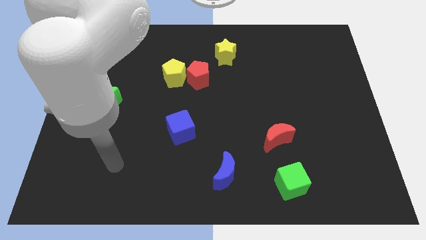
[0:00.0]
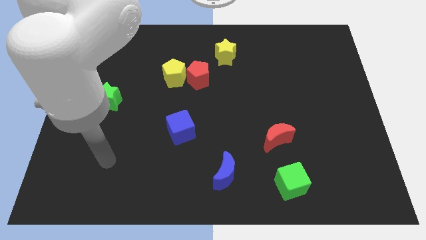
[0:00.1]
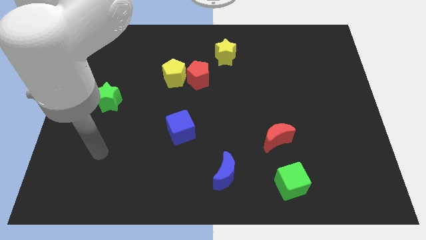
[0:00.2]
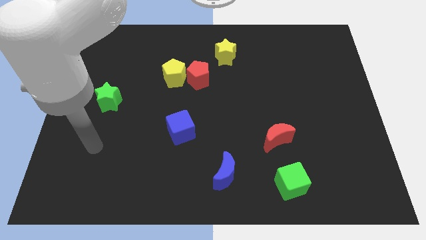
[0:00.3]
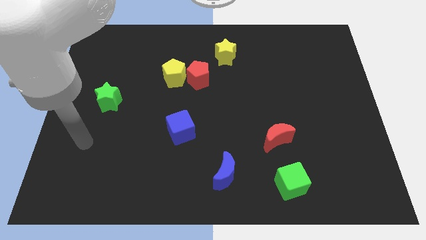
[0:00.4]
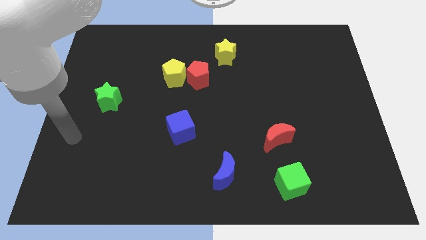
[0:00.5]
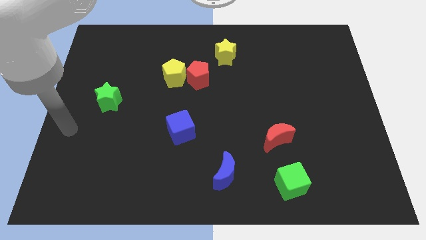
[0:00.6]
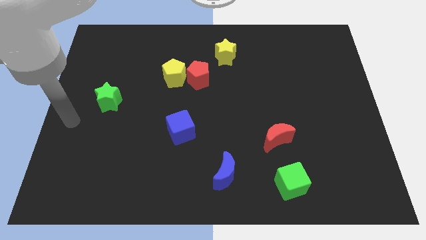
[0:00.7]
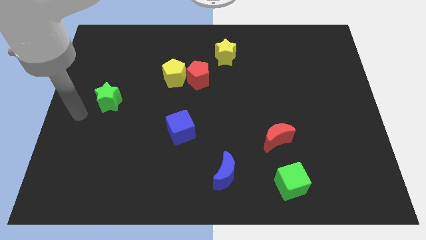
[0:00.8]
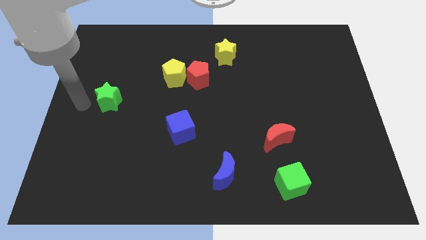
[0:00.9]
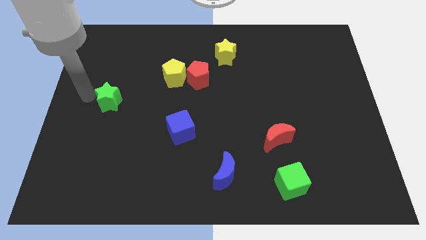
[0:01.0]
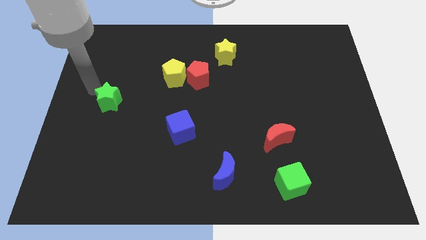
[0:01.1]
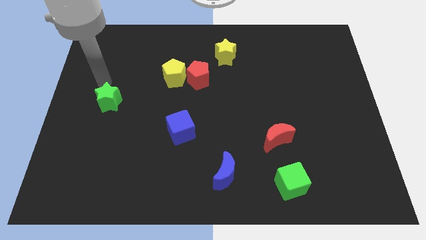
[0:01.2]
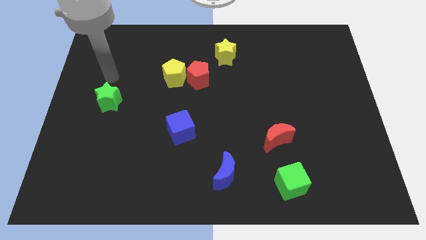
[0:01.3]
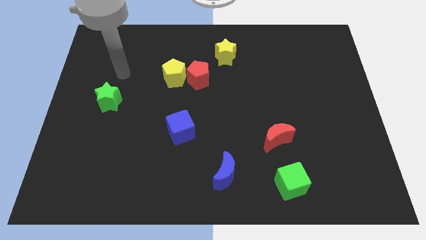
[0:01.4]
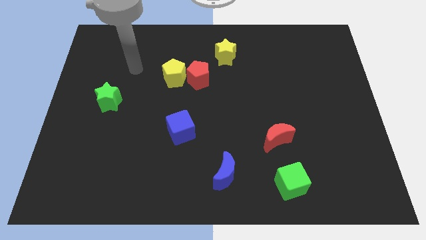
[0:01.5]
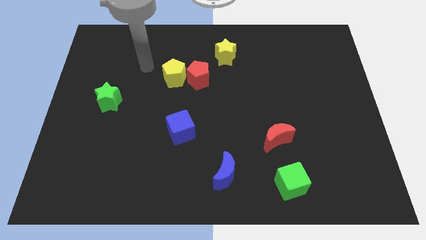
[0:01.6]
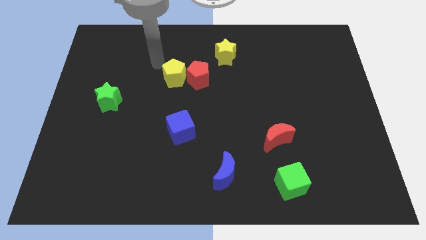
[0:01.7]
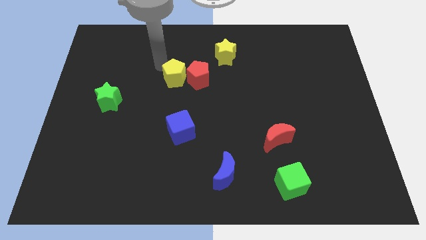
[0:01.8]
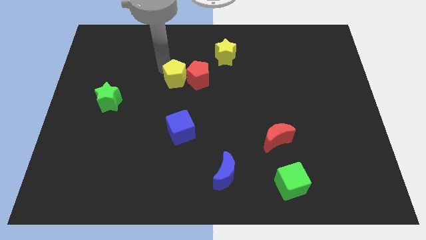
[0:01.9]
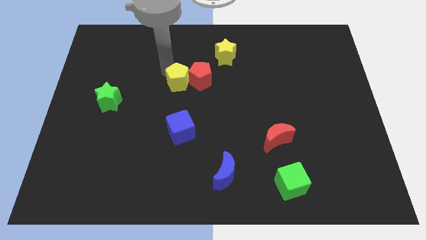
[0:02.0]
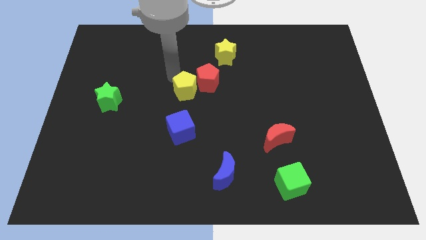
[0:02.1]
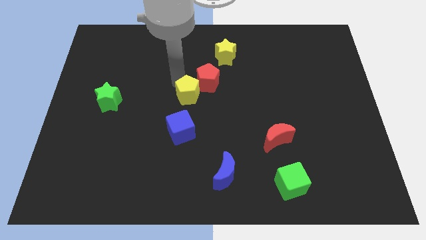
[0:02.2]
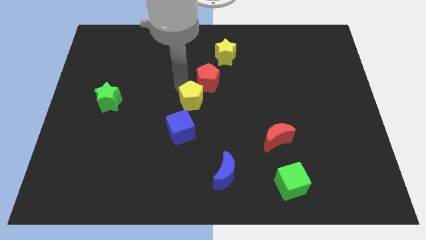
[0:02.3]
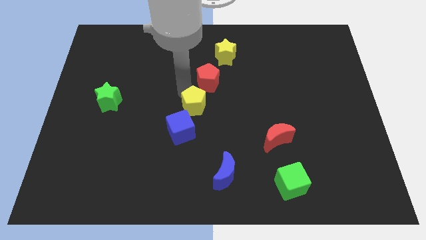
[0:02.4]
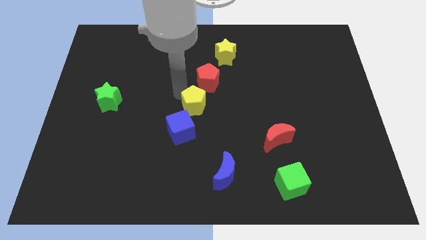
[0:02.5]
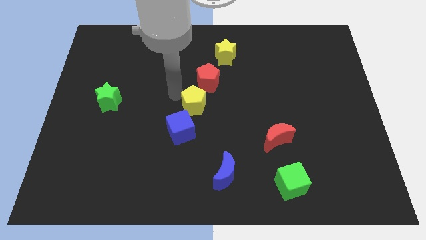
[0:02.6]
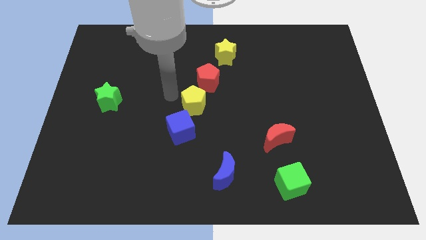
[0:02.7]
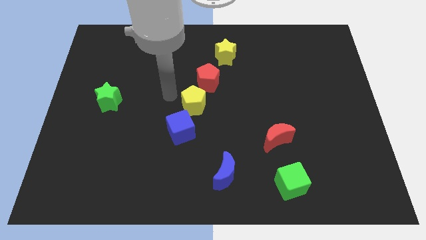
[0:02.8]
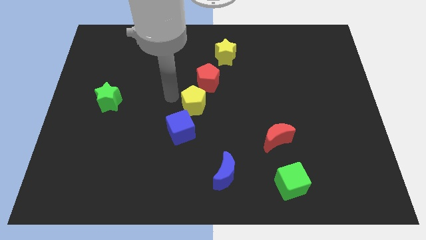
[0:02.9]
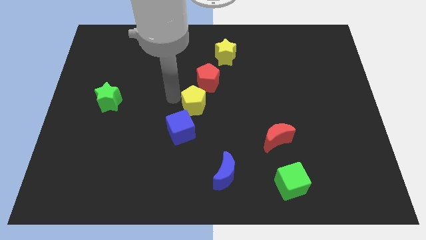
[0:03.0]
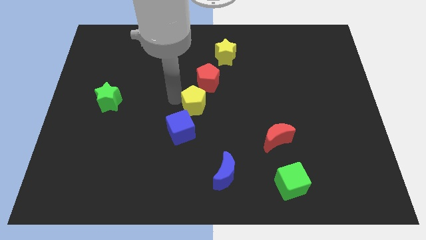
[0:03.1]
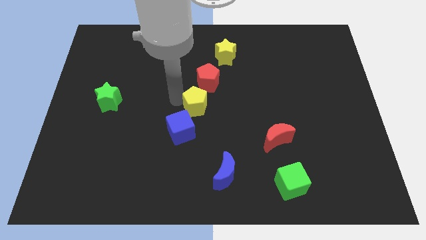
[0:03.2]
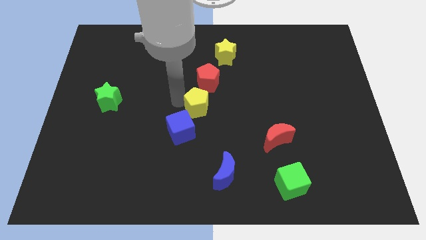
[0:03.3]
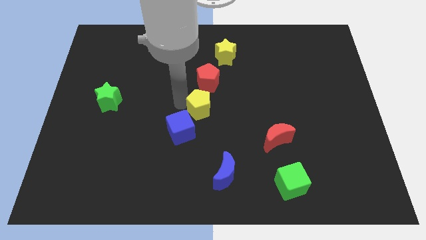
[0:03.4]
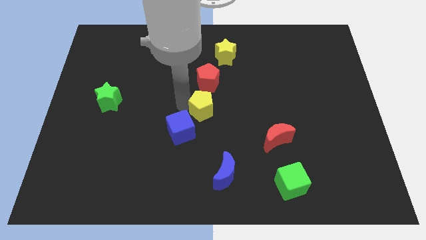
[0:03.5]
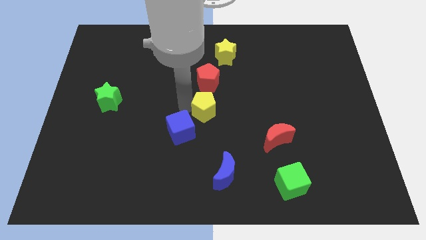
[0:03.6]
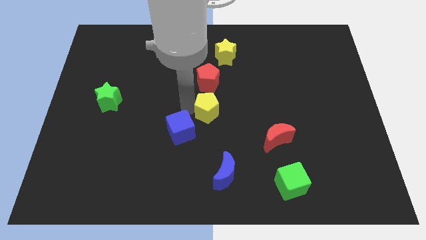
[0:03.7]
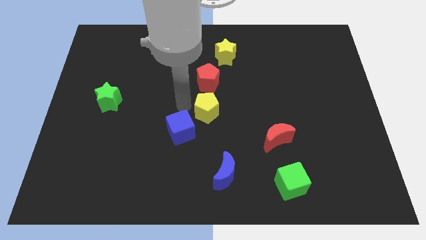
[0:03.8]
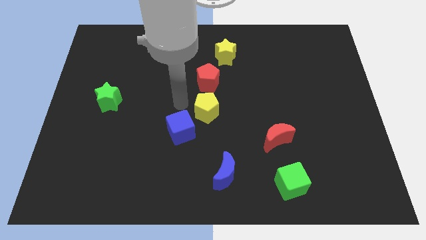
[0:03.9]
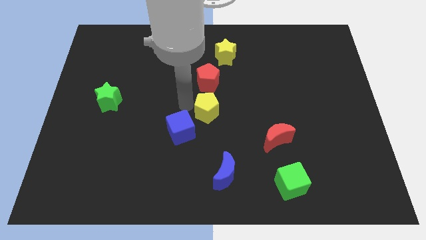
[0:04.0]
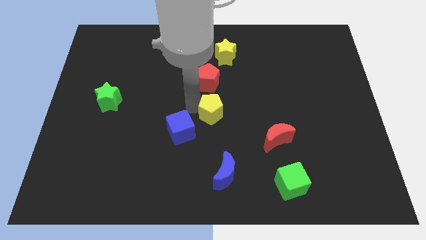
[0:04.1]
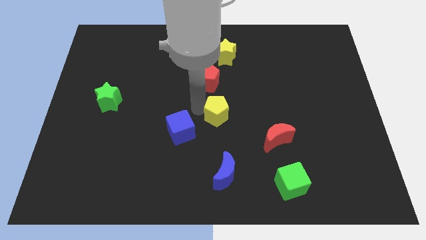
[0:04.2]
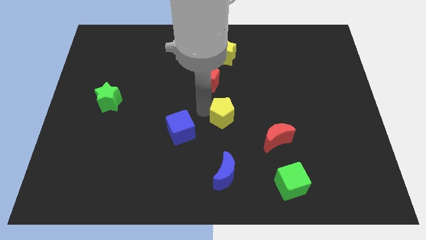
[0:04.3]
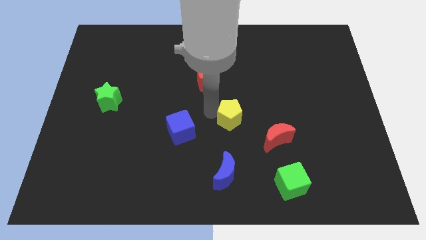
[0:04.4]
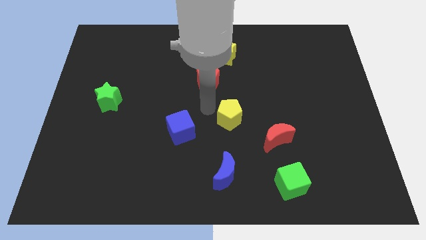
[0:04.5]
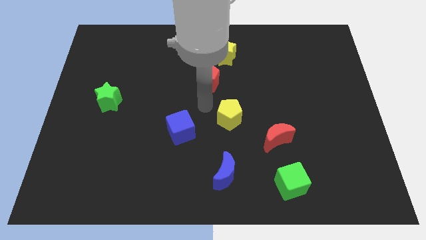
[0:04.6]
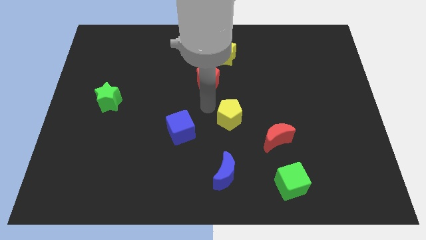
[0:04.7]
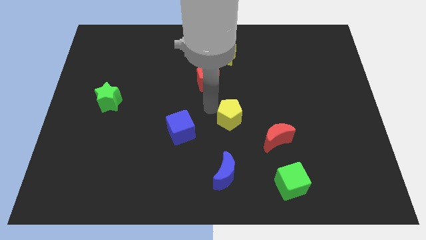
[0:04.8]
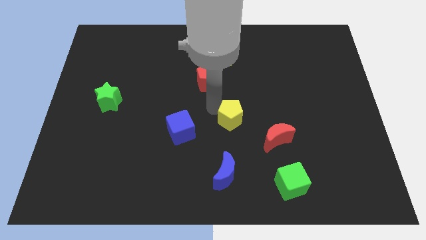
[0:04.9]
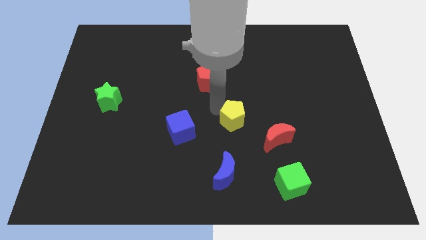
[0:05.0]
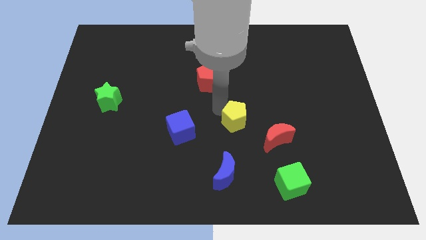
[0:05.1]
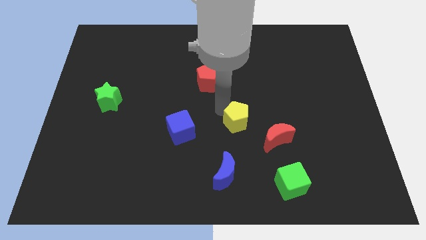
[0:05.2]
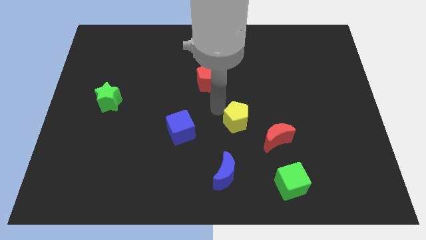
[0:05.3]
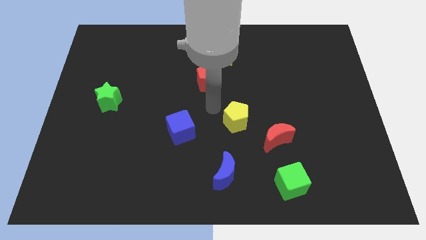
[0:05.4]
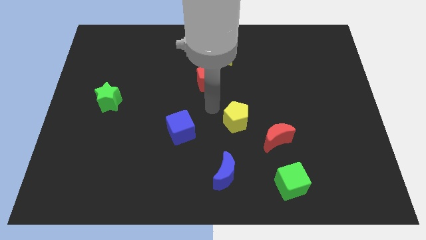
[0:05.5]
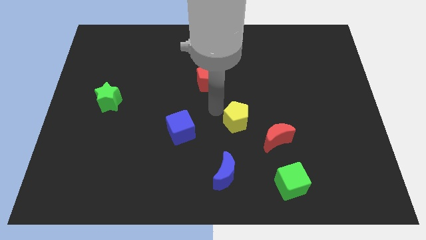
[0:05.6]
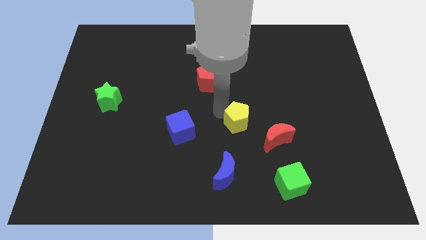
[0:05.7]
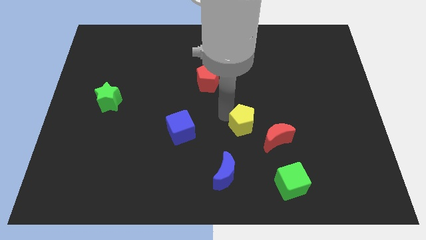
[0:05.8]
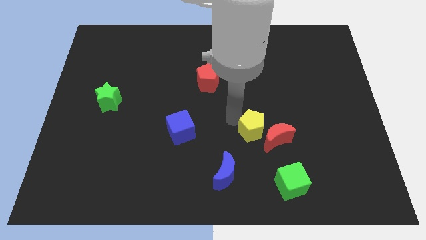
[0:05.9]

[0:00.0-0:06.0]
push the yellow pentagon close to the red moon

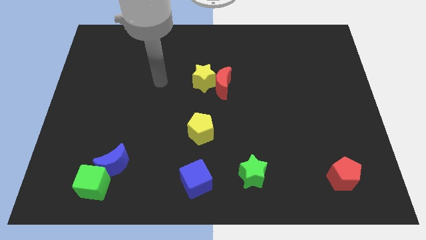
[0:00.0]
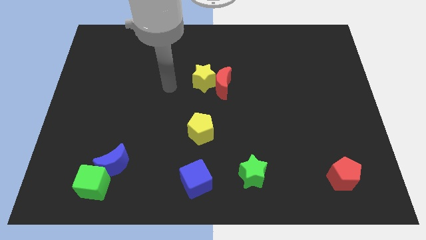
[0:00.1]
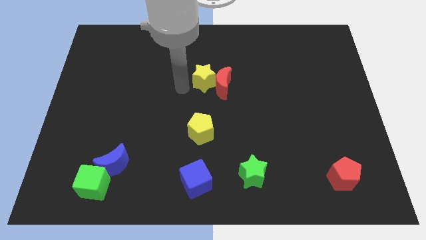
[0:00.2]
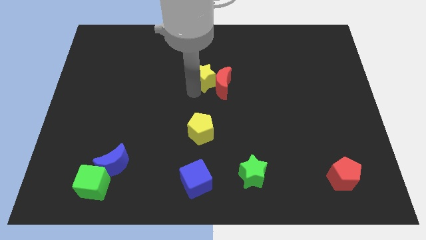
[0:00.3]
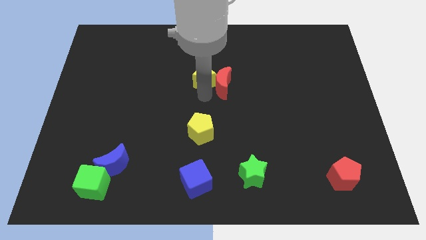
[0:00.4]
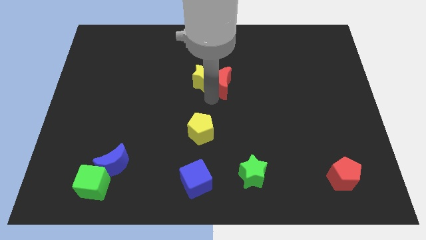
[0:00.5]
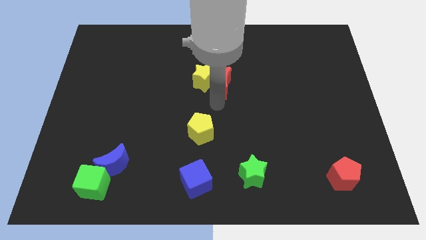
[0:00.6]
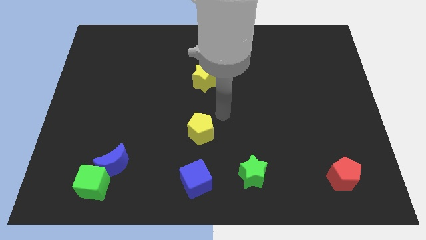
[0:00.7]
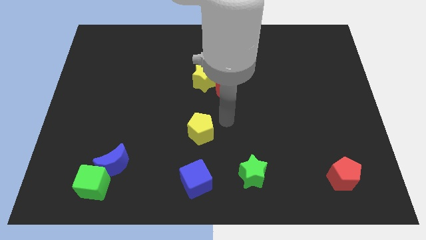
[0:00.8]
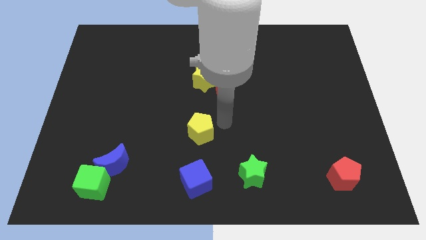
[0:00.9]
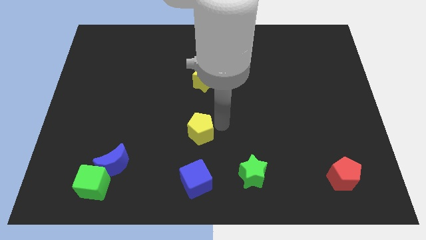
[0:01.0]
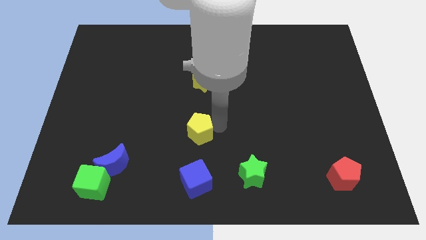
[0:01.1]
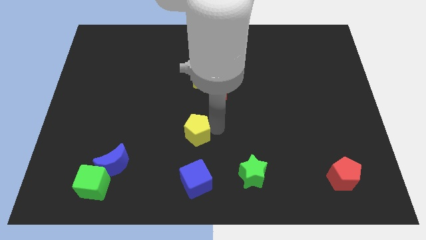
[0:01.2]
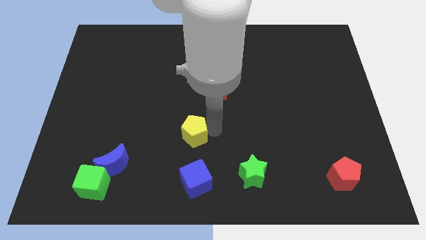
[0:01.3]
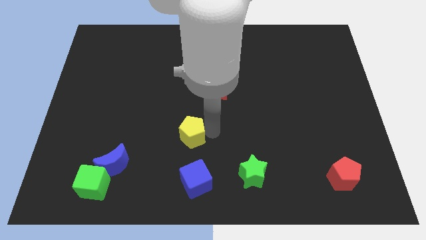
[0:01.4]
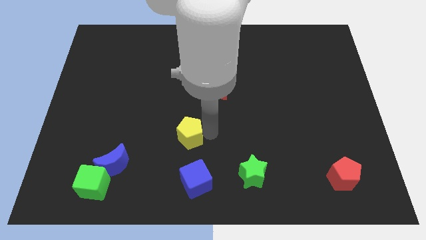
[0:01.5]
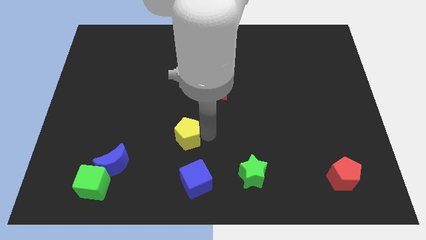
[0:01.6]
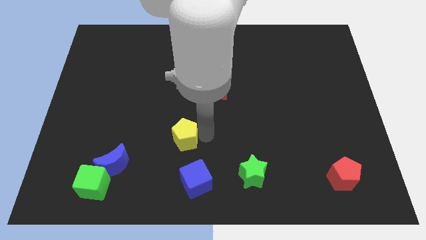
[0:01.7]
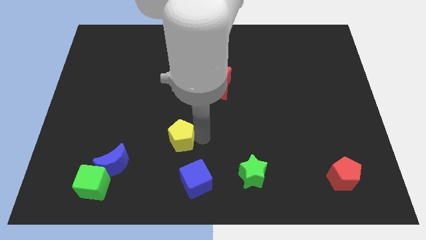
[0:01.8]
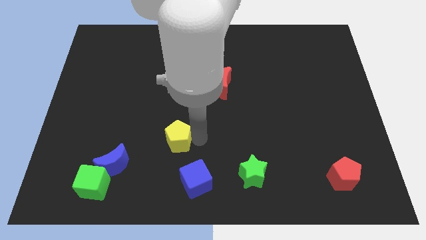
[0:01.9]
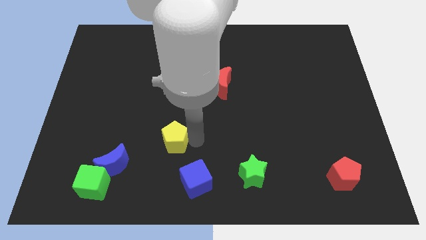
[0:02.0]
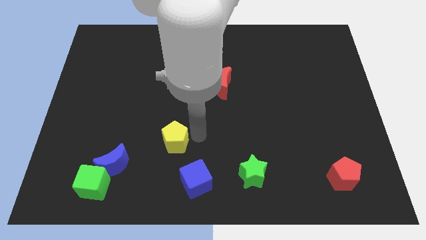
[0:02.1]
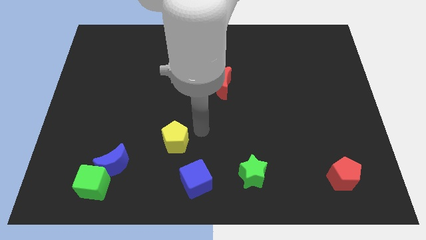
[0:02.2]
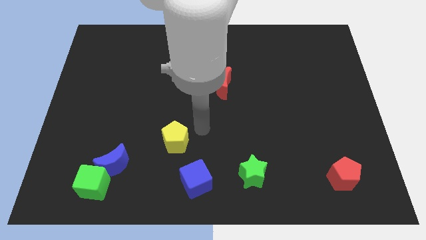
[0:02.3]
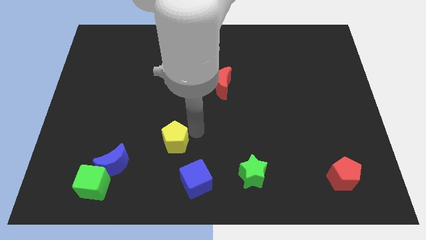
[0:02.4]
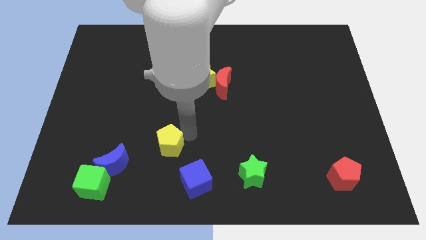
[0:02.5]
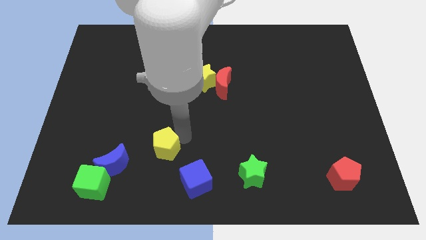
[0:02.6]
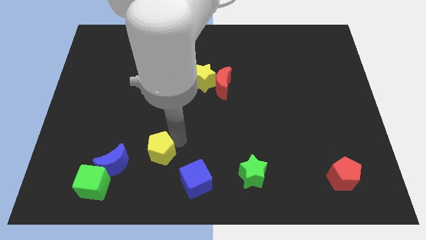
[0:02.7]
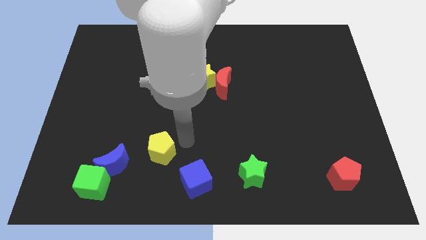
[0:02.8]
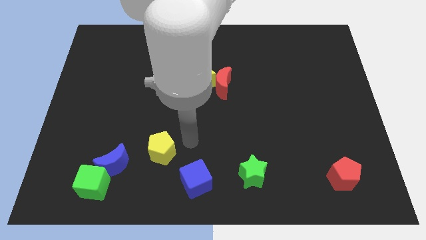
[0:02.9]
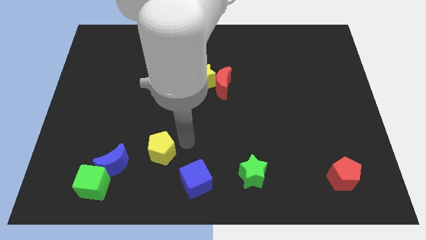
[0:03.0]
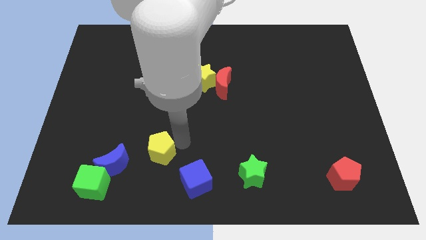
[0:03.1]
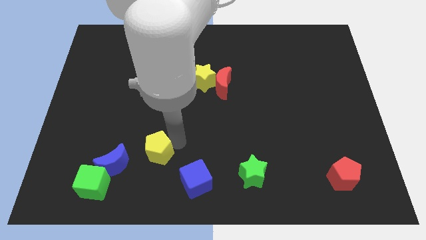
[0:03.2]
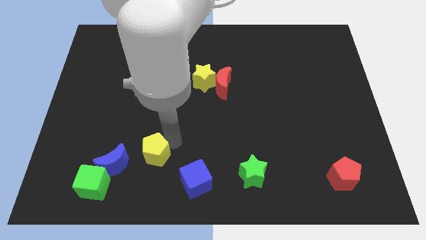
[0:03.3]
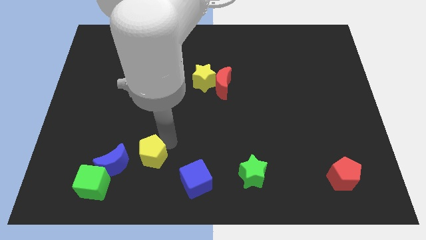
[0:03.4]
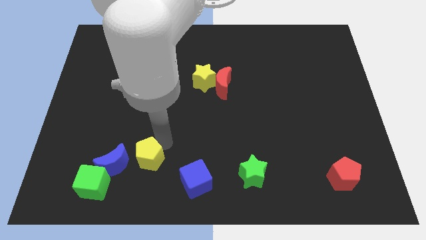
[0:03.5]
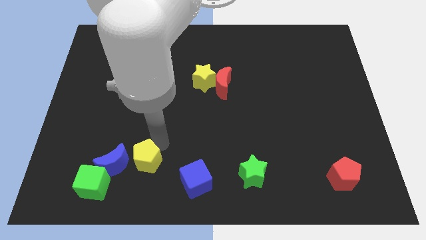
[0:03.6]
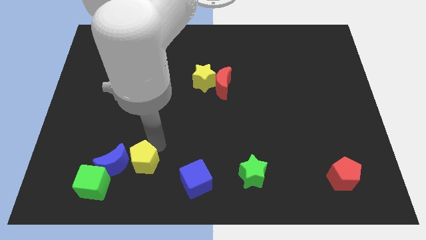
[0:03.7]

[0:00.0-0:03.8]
push the yellow pentagon next to the blue moon
